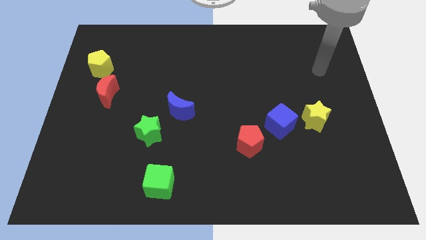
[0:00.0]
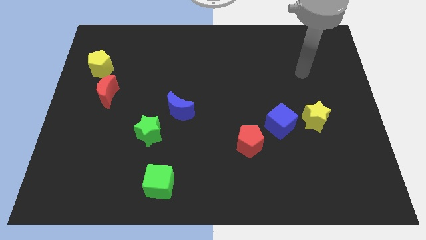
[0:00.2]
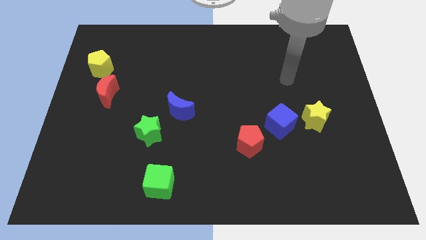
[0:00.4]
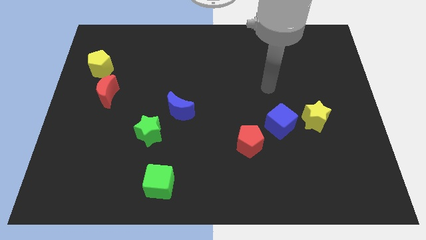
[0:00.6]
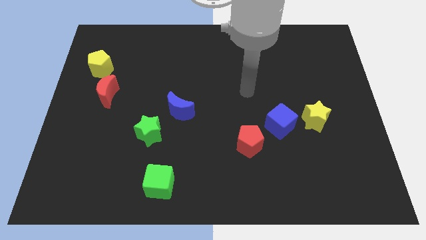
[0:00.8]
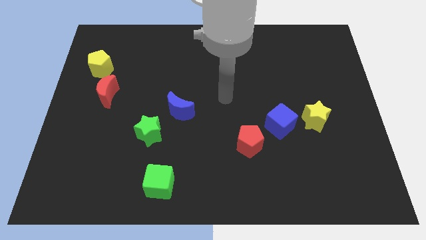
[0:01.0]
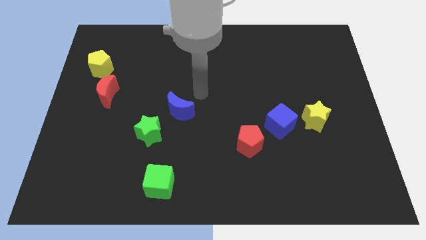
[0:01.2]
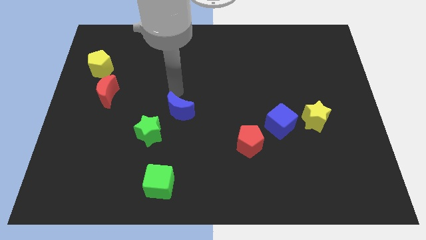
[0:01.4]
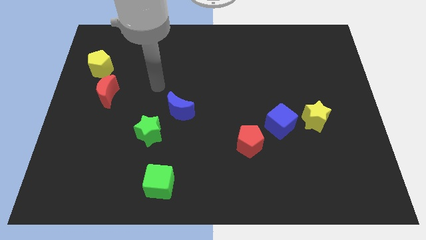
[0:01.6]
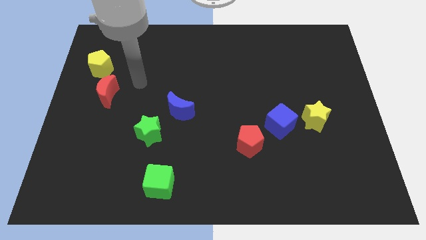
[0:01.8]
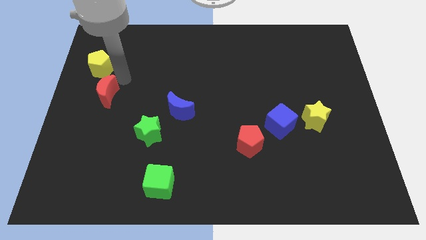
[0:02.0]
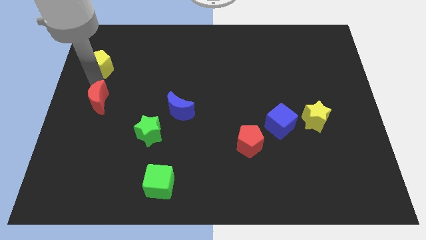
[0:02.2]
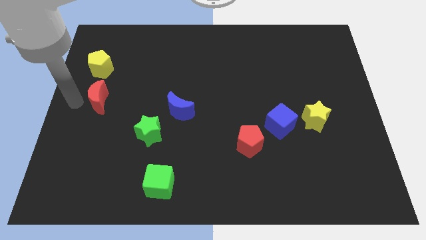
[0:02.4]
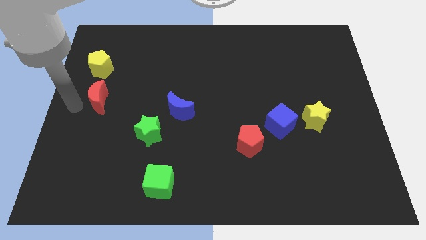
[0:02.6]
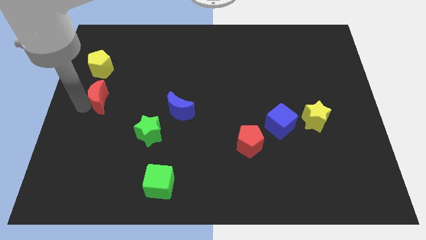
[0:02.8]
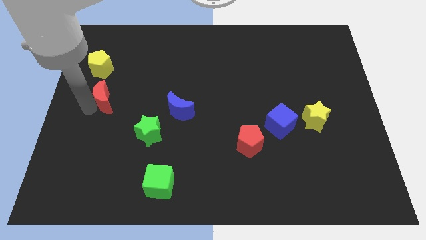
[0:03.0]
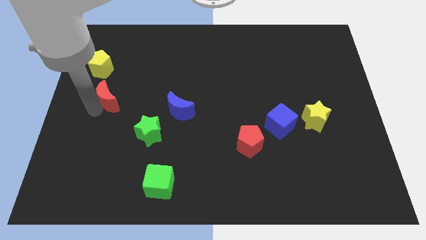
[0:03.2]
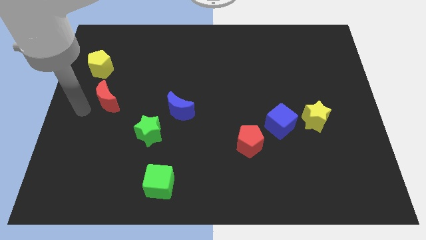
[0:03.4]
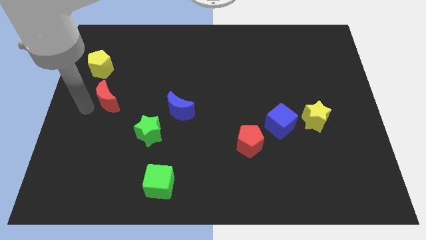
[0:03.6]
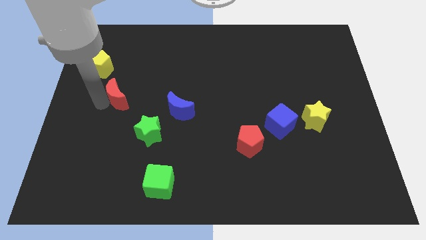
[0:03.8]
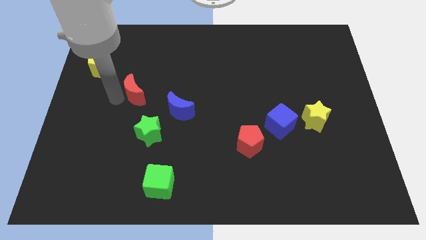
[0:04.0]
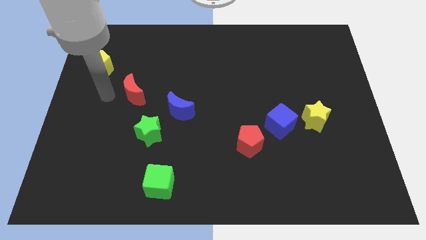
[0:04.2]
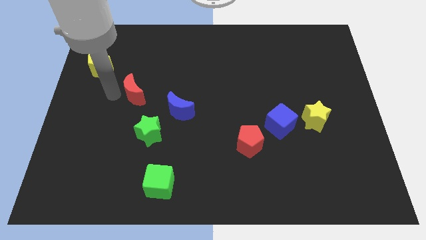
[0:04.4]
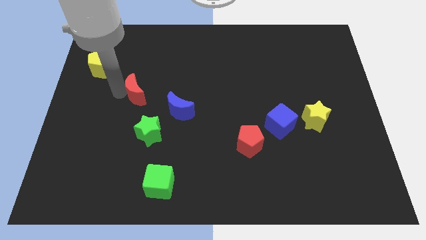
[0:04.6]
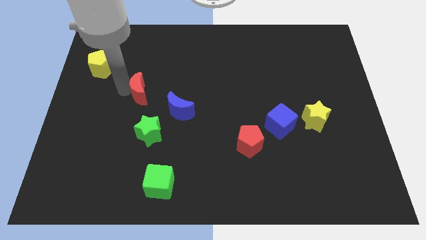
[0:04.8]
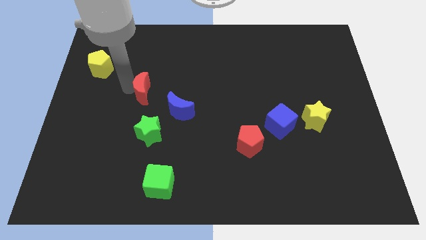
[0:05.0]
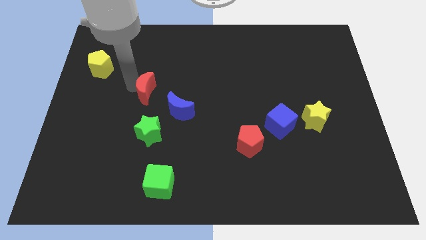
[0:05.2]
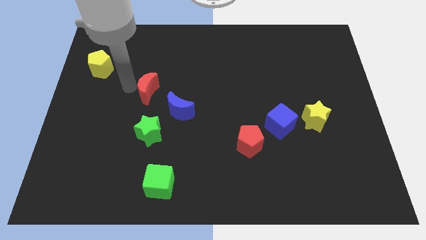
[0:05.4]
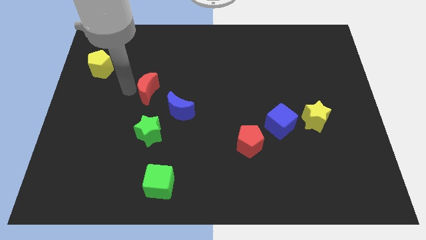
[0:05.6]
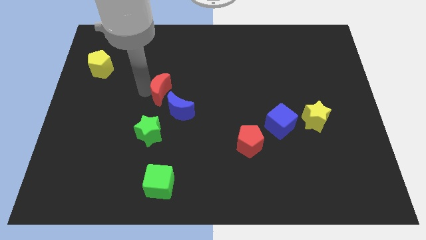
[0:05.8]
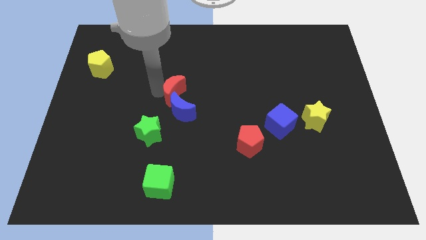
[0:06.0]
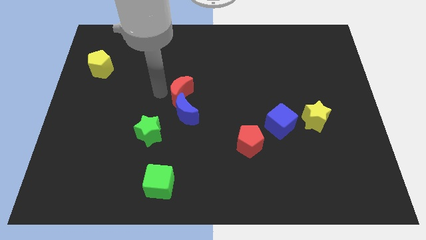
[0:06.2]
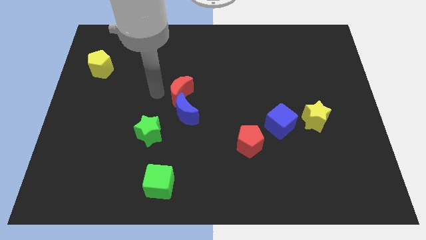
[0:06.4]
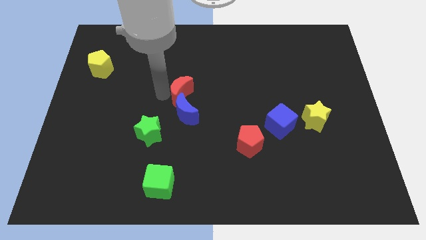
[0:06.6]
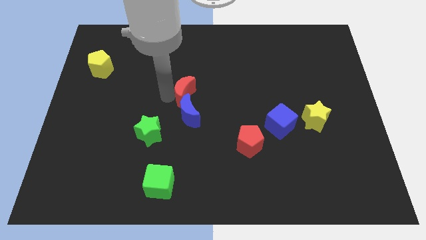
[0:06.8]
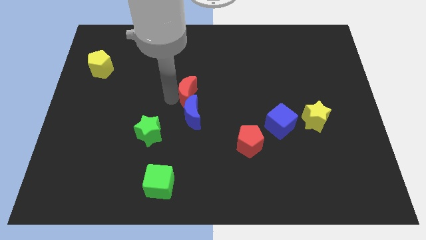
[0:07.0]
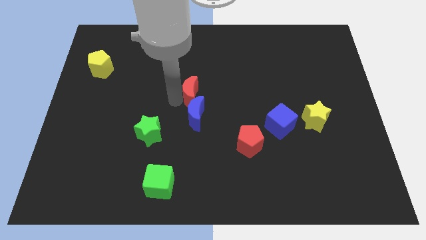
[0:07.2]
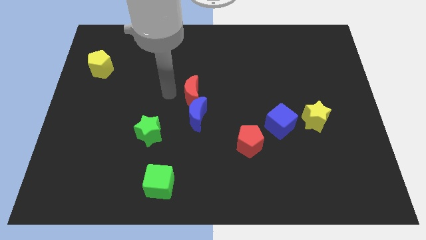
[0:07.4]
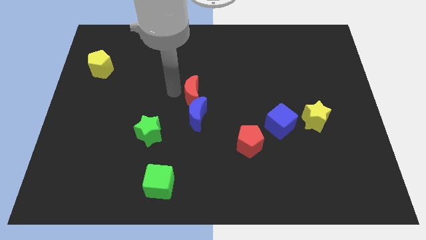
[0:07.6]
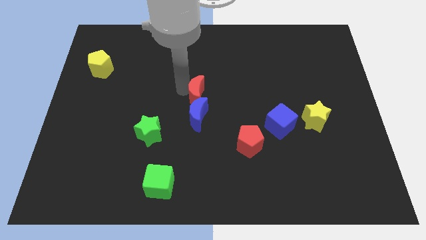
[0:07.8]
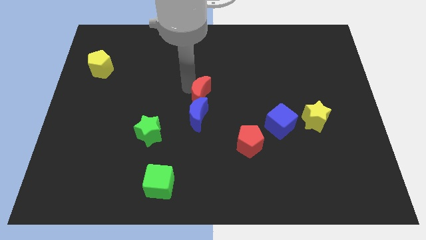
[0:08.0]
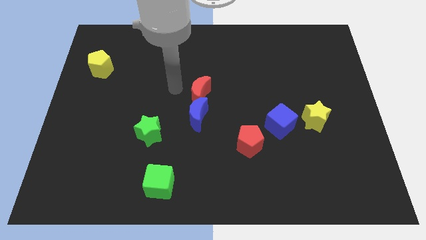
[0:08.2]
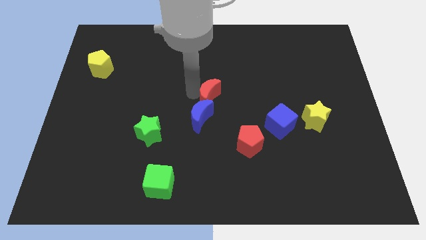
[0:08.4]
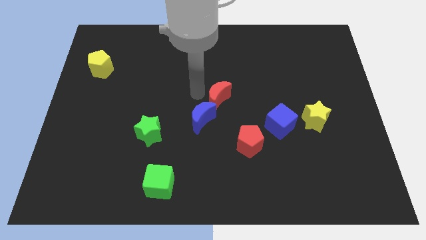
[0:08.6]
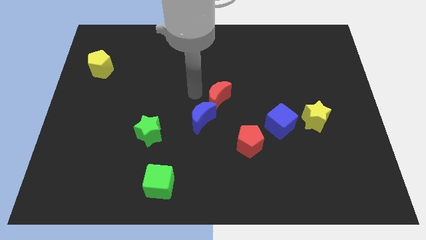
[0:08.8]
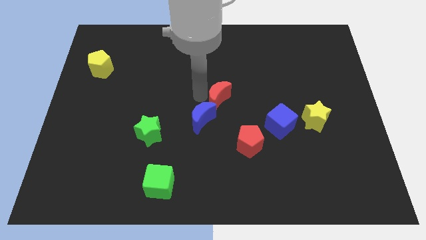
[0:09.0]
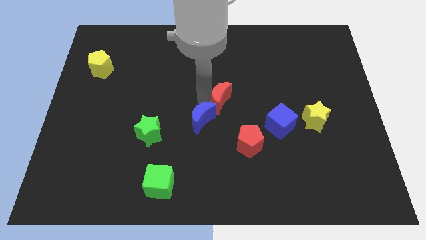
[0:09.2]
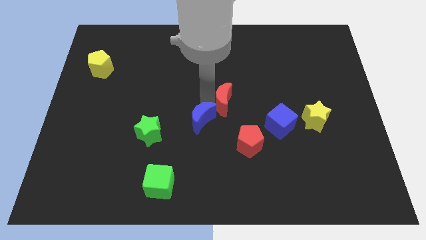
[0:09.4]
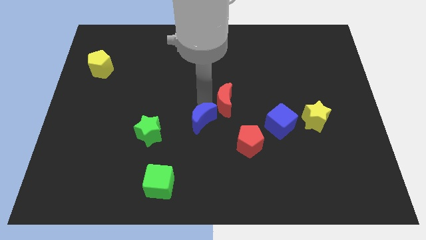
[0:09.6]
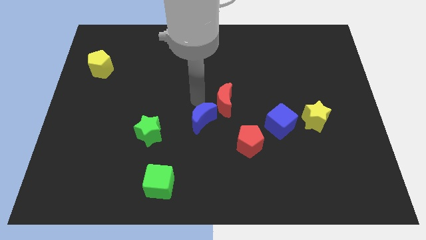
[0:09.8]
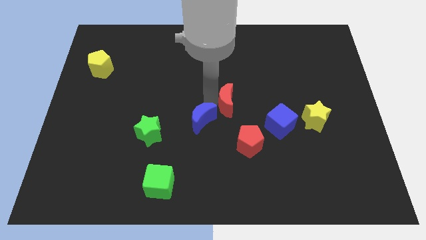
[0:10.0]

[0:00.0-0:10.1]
slide the red moon to the top side of the red pentagon

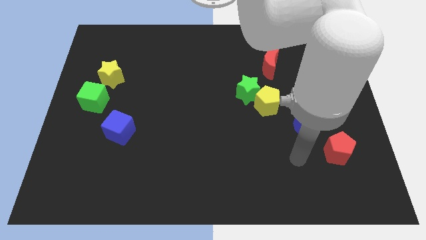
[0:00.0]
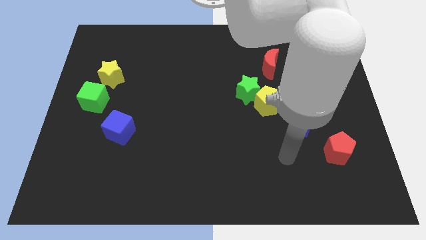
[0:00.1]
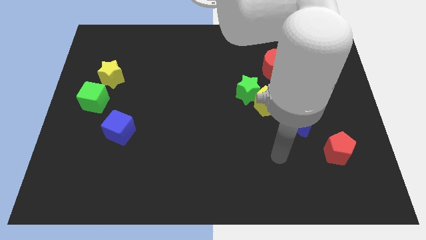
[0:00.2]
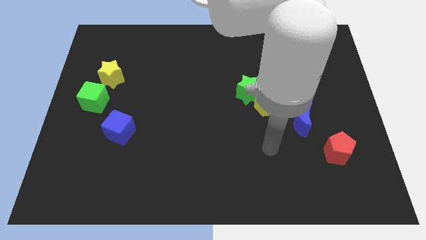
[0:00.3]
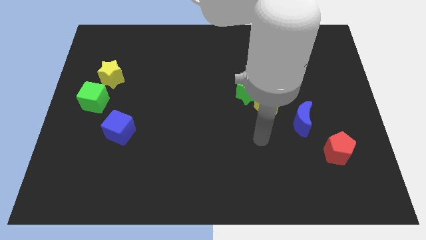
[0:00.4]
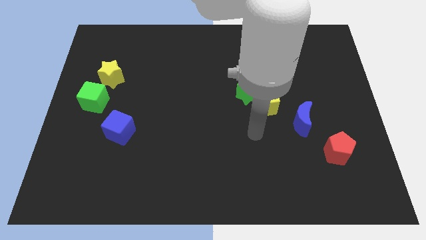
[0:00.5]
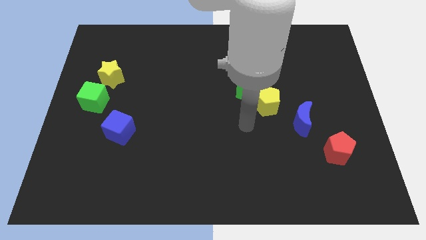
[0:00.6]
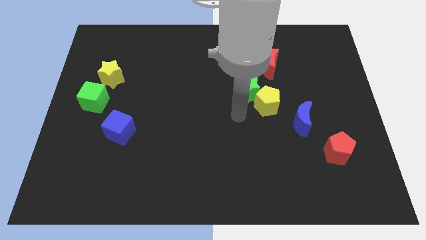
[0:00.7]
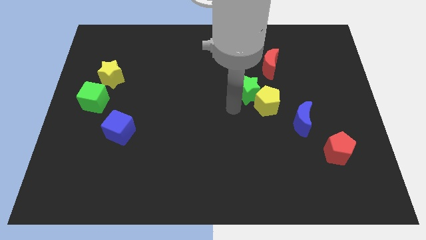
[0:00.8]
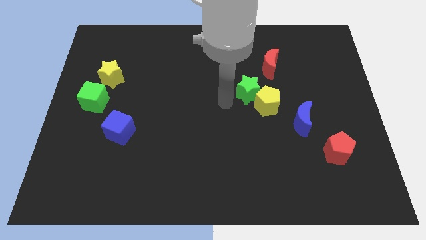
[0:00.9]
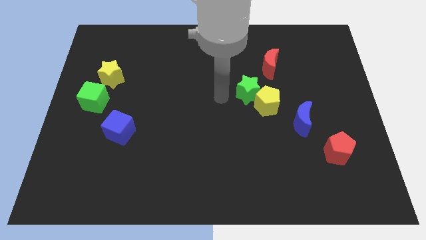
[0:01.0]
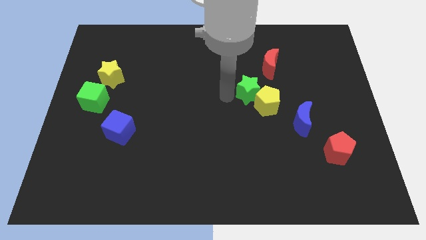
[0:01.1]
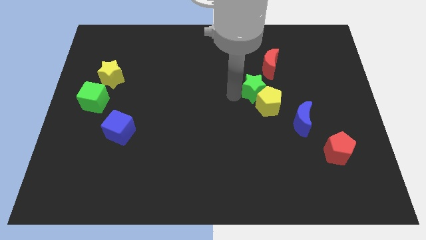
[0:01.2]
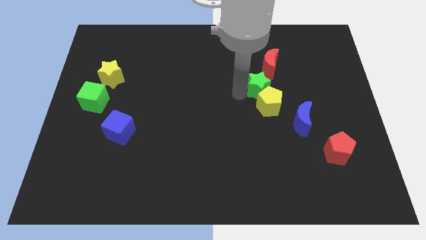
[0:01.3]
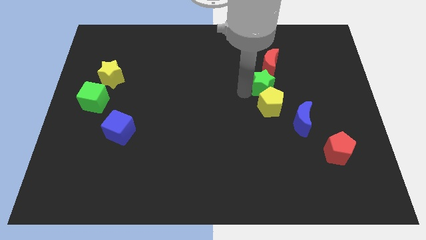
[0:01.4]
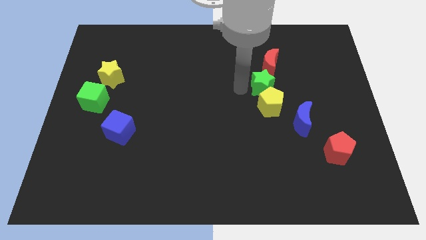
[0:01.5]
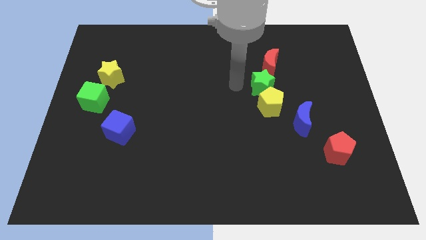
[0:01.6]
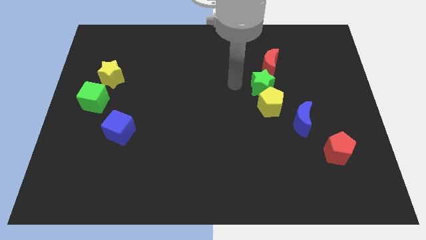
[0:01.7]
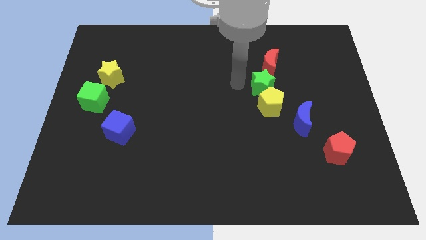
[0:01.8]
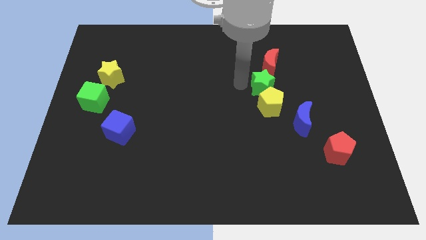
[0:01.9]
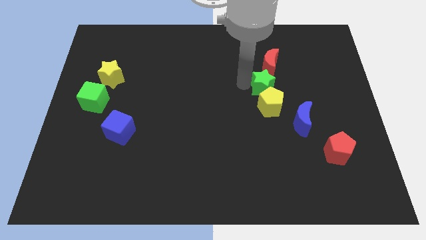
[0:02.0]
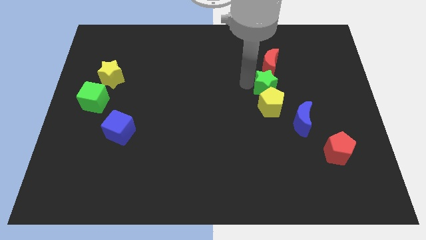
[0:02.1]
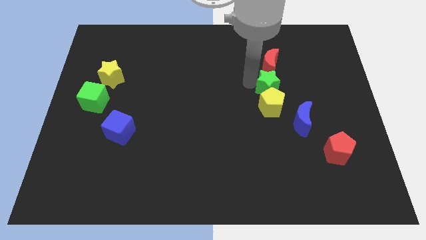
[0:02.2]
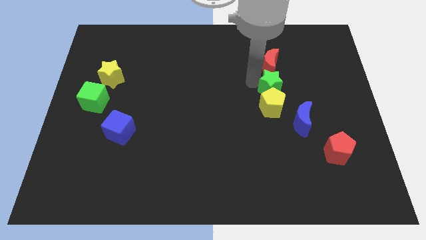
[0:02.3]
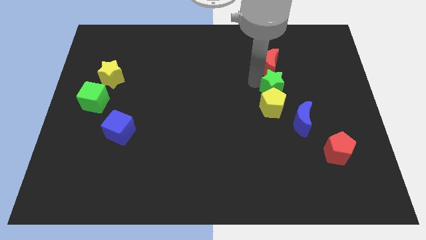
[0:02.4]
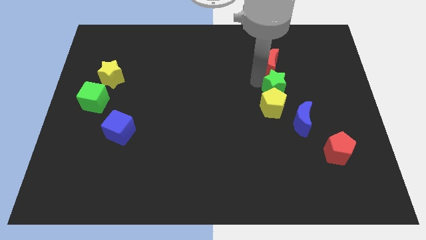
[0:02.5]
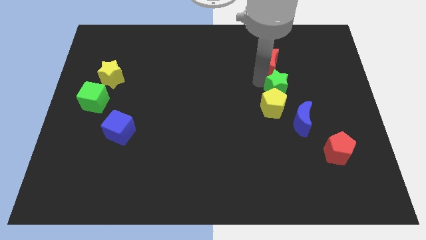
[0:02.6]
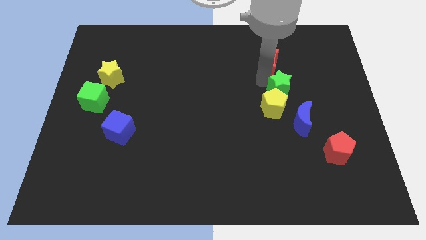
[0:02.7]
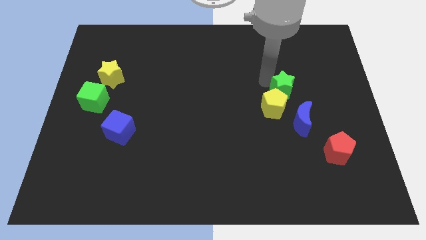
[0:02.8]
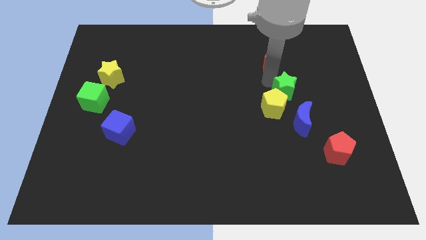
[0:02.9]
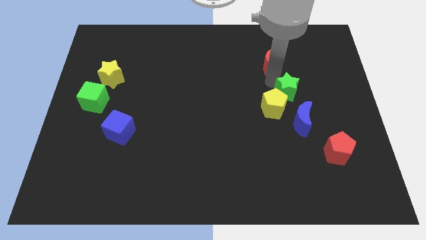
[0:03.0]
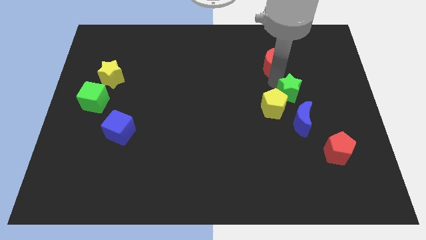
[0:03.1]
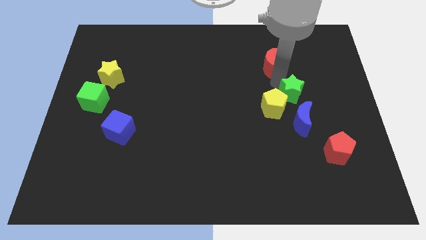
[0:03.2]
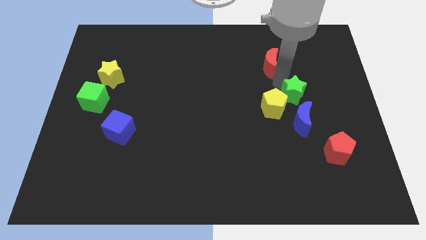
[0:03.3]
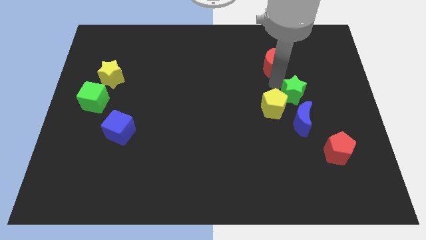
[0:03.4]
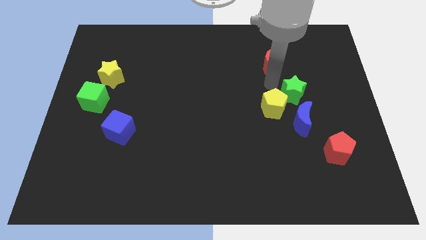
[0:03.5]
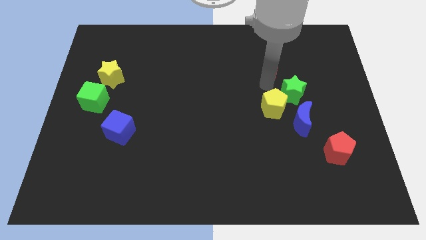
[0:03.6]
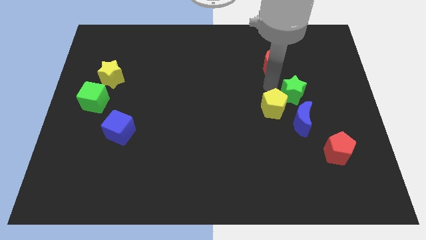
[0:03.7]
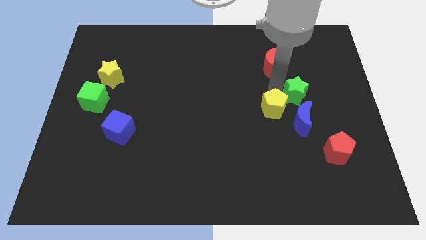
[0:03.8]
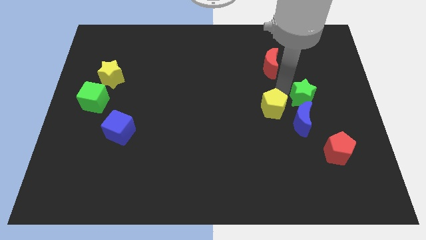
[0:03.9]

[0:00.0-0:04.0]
slide the green star to the top right of the blue moon
